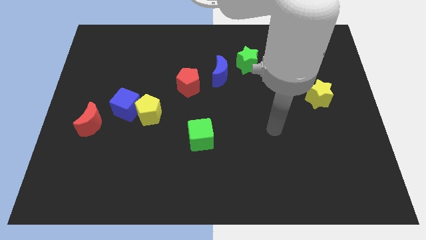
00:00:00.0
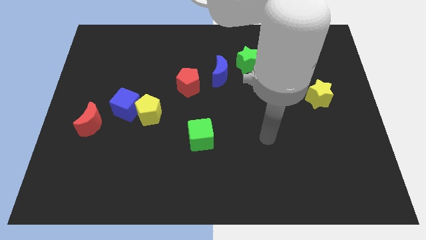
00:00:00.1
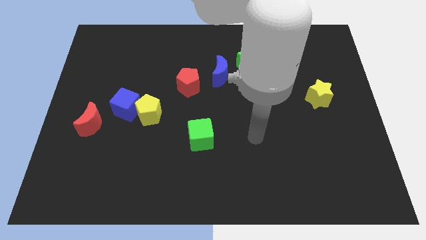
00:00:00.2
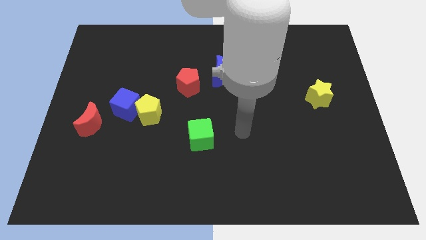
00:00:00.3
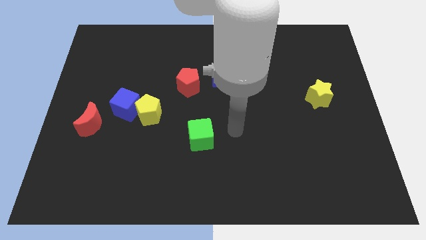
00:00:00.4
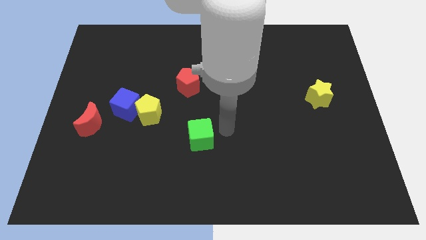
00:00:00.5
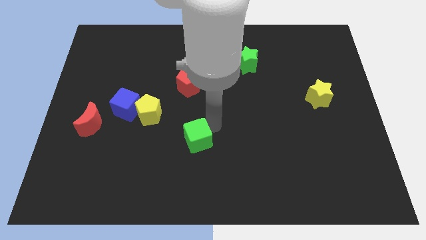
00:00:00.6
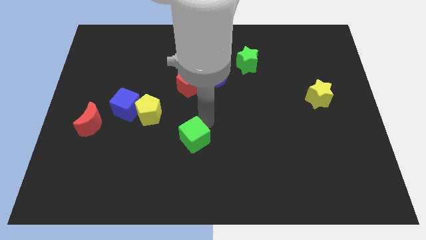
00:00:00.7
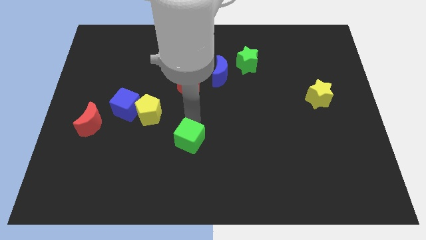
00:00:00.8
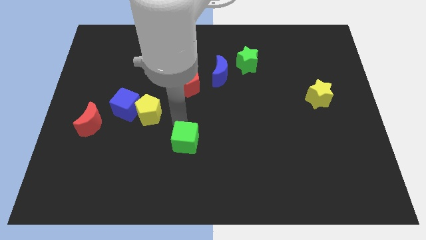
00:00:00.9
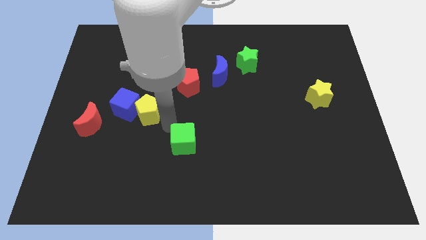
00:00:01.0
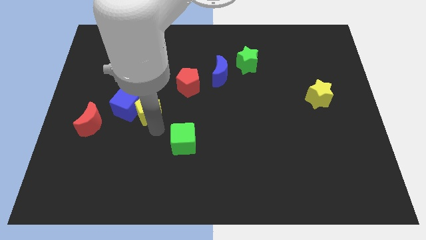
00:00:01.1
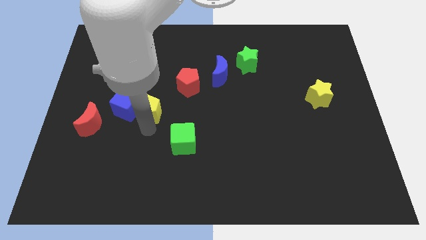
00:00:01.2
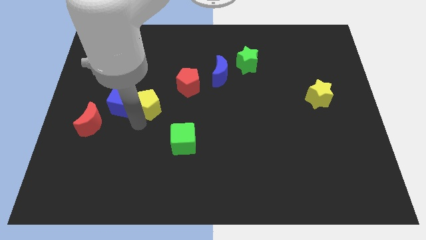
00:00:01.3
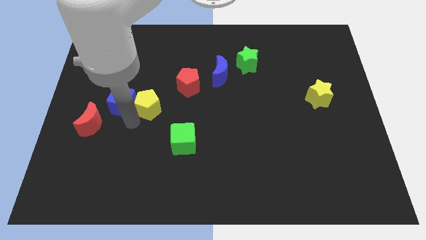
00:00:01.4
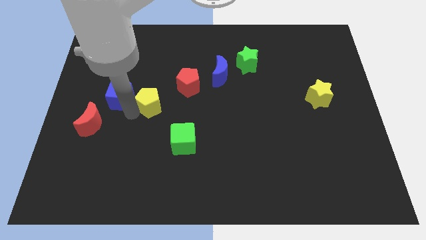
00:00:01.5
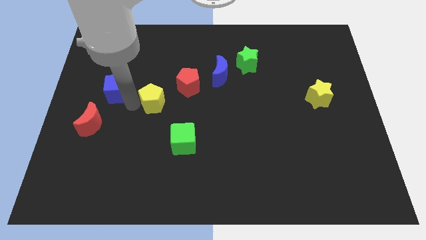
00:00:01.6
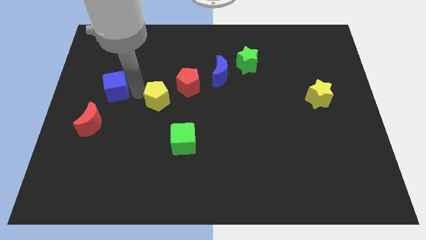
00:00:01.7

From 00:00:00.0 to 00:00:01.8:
pull the yellow pentagon apart from the blue cube

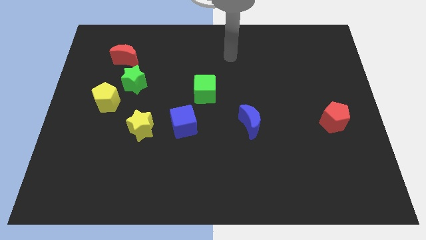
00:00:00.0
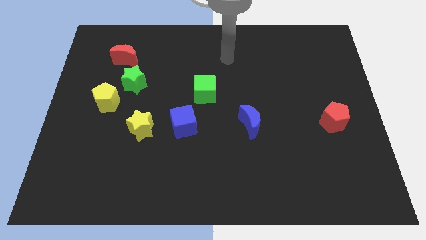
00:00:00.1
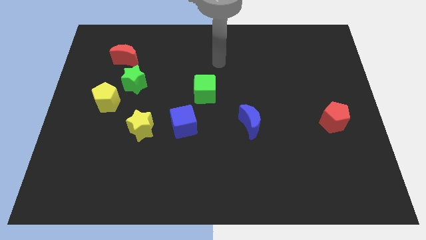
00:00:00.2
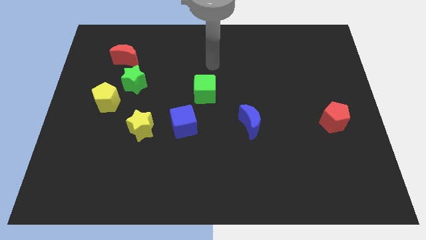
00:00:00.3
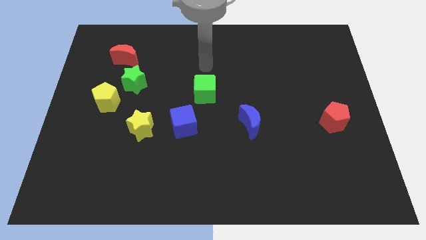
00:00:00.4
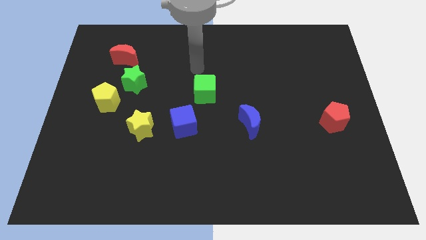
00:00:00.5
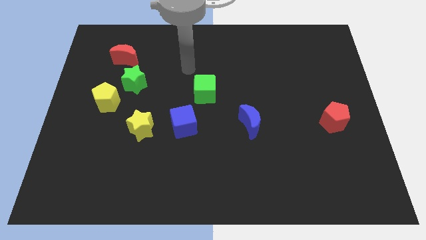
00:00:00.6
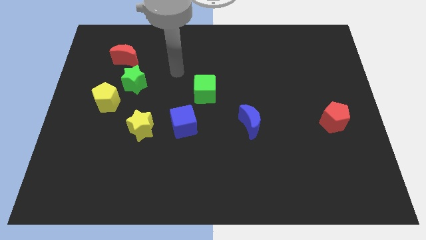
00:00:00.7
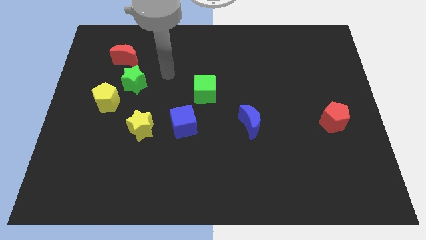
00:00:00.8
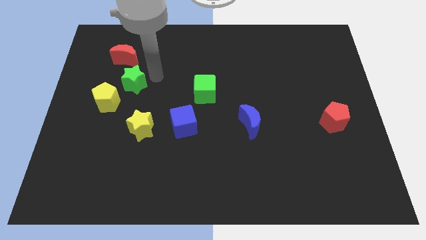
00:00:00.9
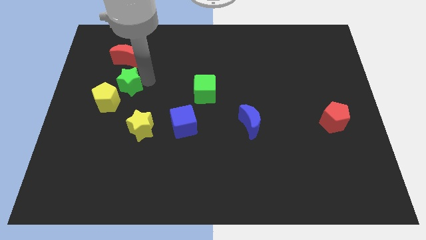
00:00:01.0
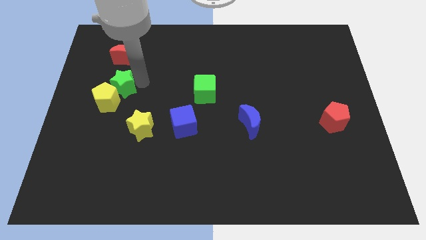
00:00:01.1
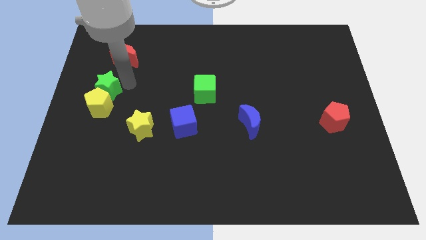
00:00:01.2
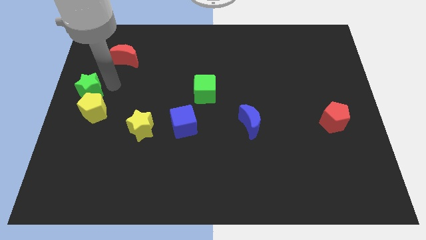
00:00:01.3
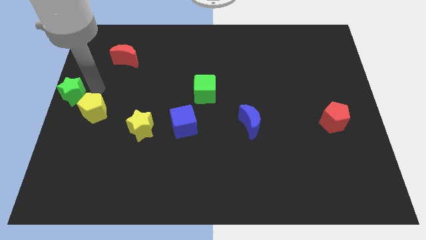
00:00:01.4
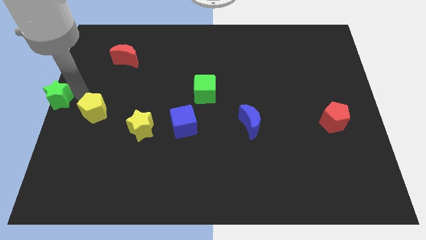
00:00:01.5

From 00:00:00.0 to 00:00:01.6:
pull the yellow pentagon apart from the green star

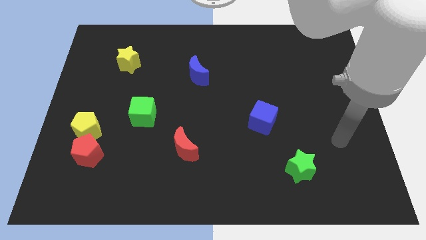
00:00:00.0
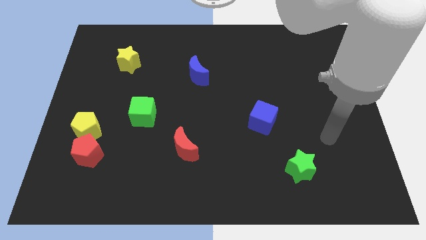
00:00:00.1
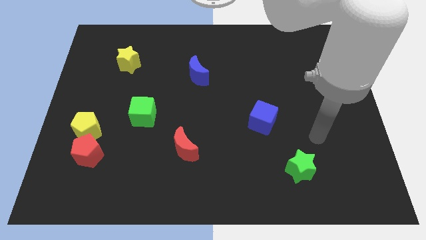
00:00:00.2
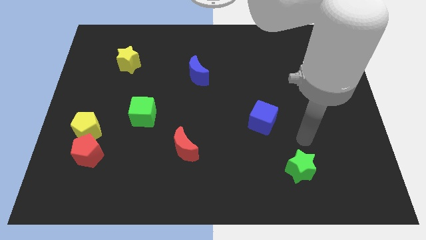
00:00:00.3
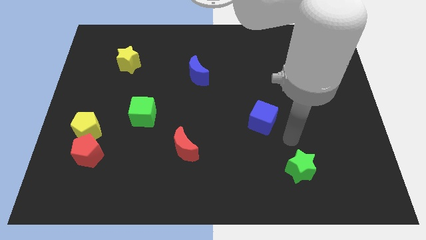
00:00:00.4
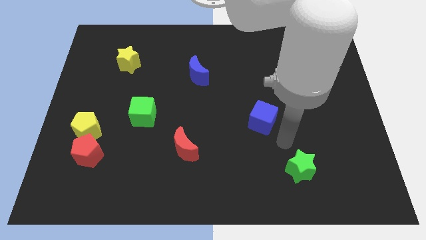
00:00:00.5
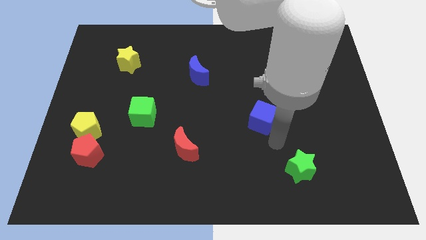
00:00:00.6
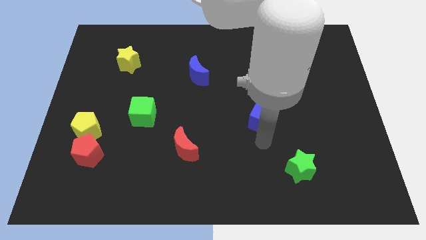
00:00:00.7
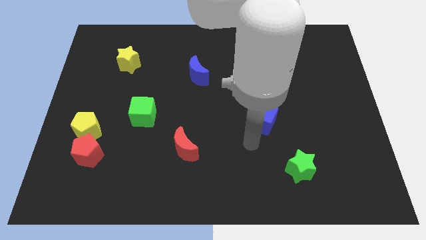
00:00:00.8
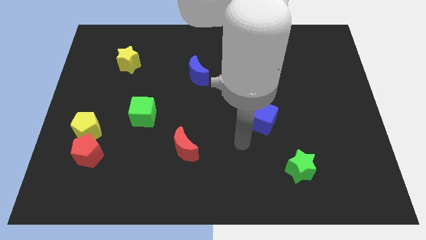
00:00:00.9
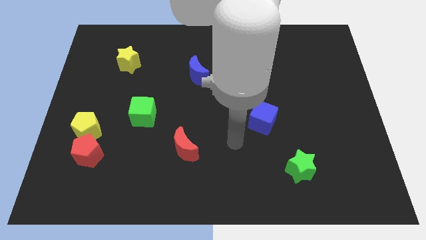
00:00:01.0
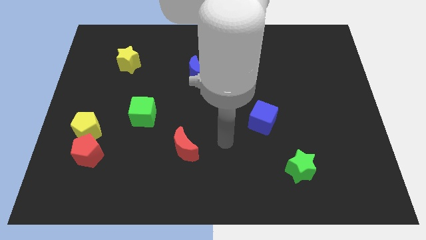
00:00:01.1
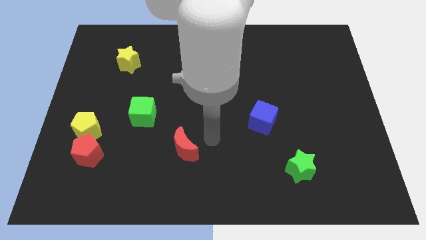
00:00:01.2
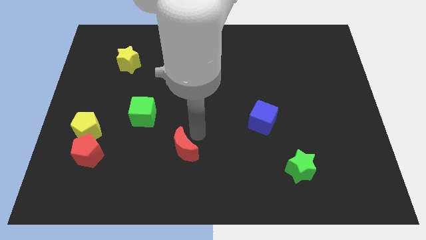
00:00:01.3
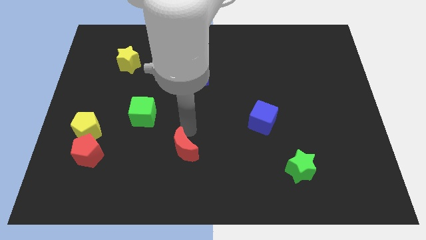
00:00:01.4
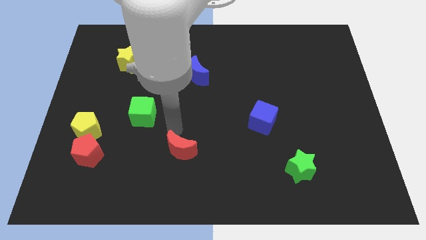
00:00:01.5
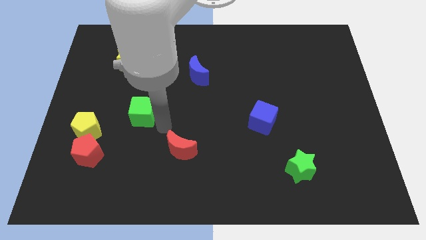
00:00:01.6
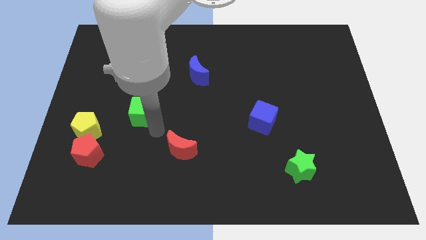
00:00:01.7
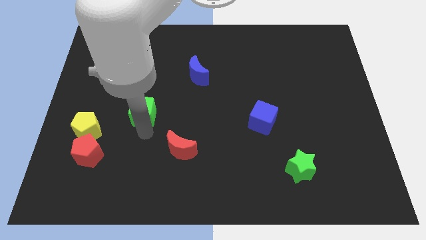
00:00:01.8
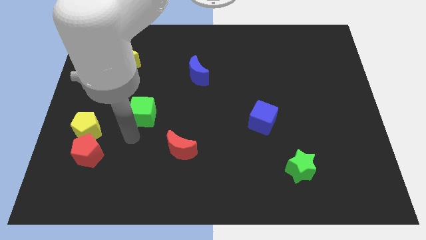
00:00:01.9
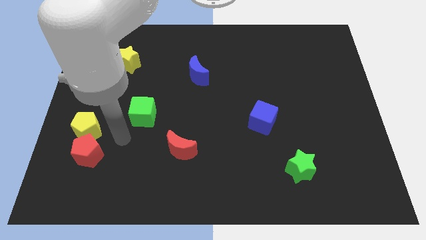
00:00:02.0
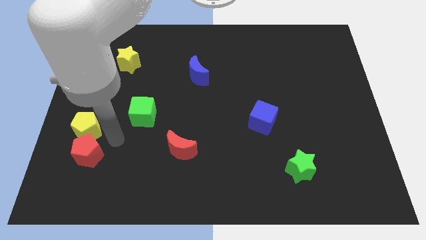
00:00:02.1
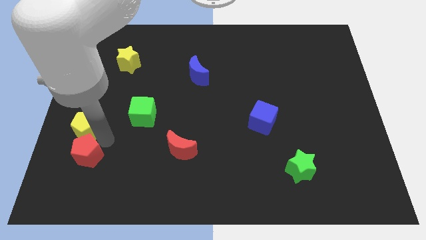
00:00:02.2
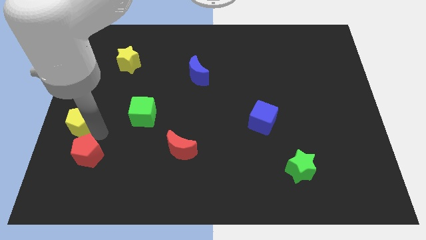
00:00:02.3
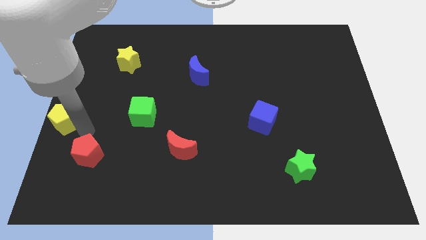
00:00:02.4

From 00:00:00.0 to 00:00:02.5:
separate the red pentagon from the yellow pentagon

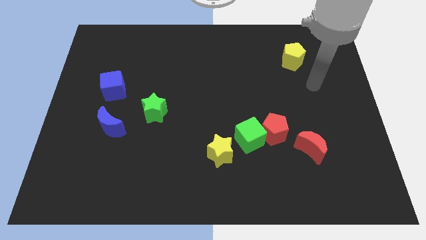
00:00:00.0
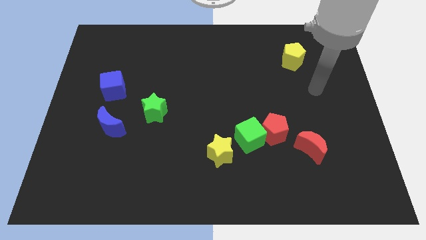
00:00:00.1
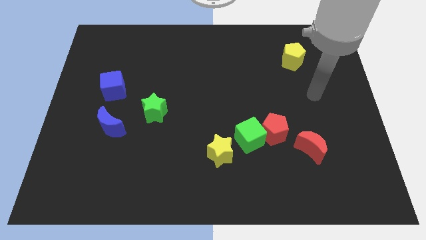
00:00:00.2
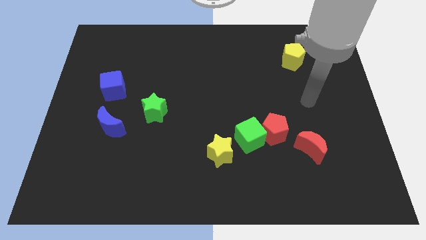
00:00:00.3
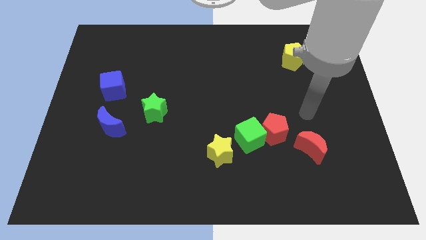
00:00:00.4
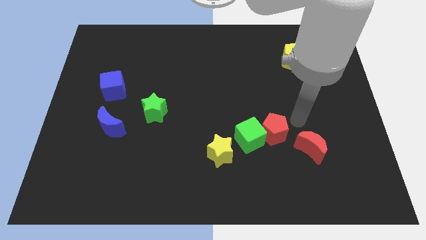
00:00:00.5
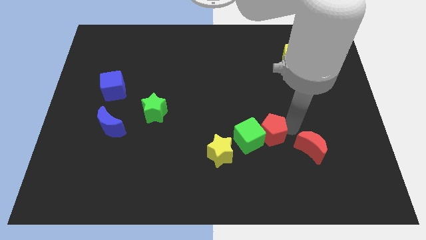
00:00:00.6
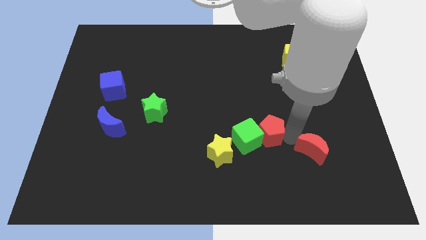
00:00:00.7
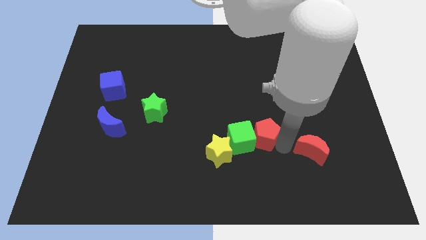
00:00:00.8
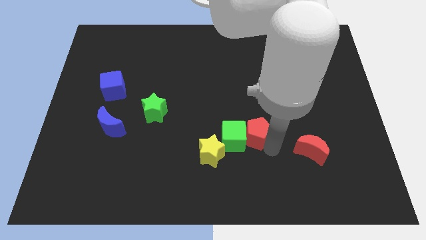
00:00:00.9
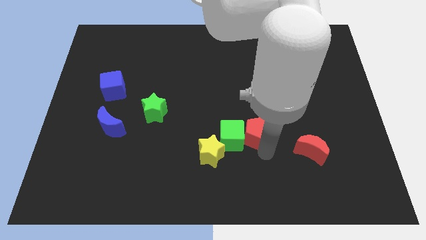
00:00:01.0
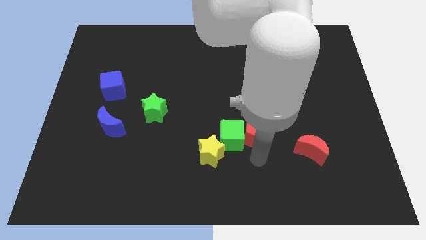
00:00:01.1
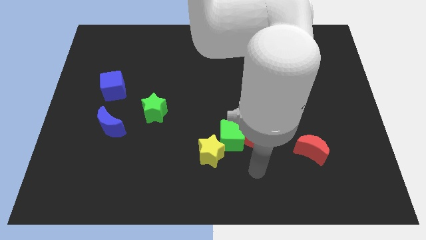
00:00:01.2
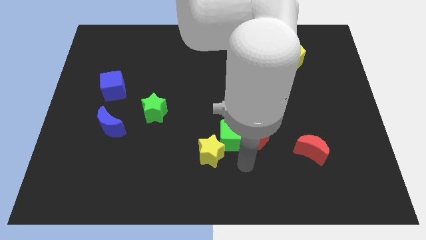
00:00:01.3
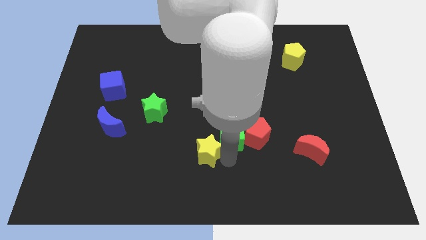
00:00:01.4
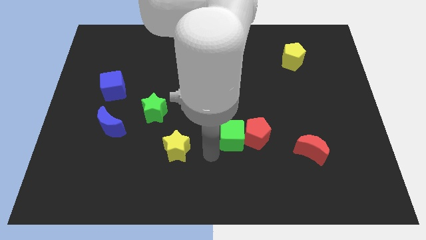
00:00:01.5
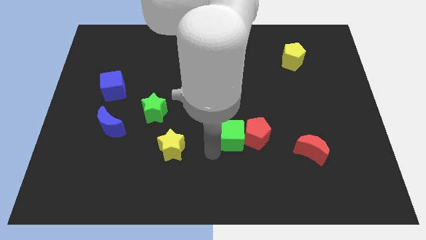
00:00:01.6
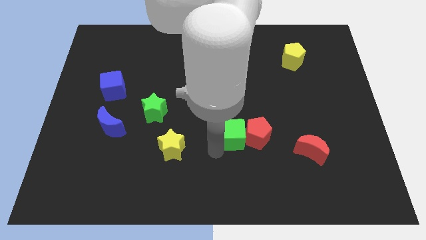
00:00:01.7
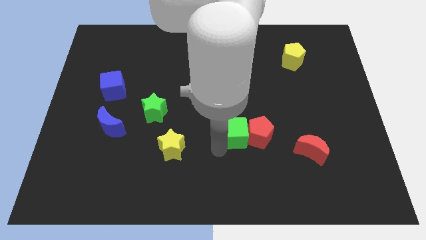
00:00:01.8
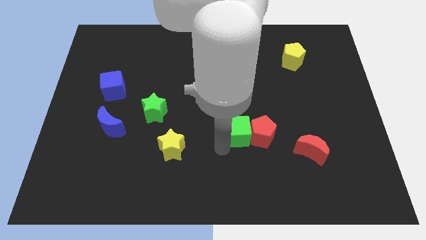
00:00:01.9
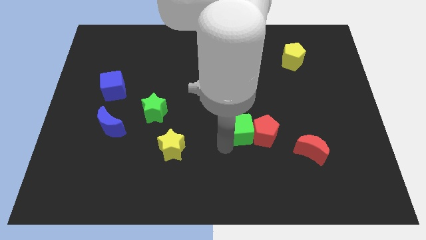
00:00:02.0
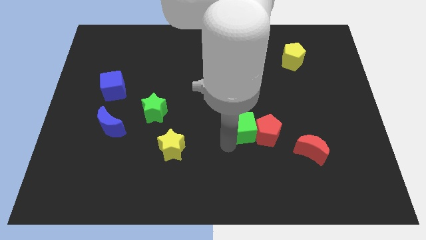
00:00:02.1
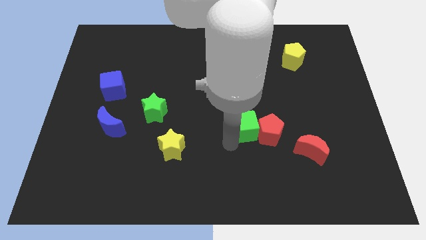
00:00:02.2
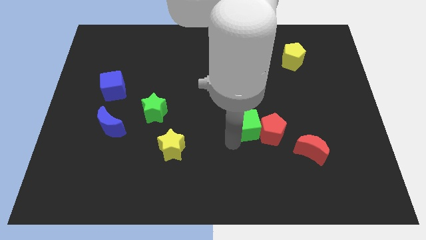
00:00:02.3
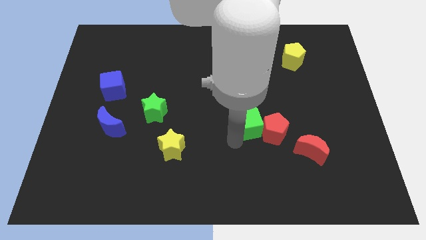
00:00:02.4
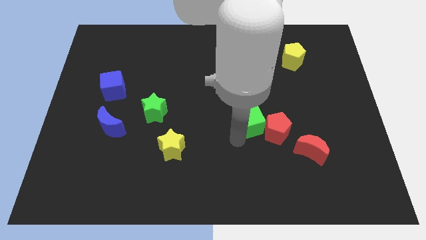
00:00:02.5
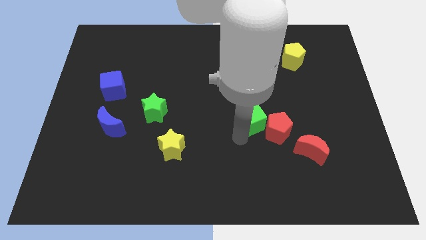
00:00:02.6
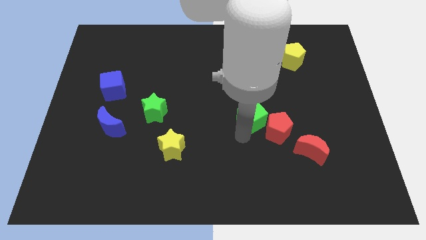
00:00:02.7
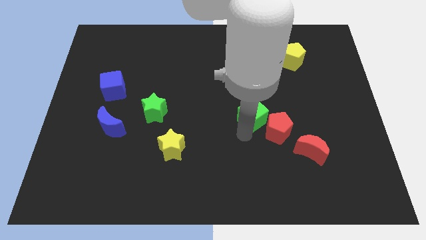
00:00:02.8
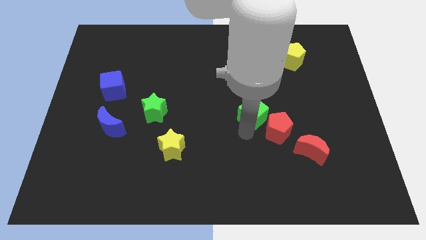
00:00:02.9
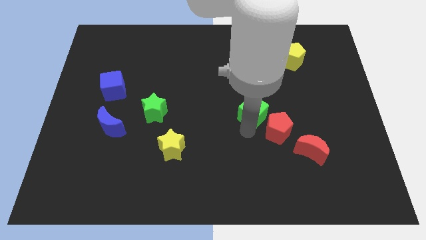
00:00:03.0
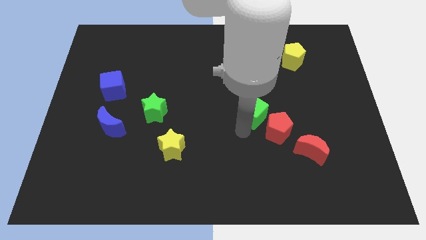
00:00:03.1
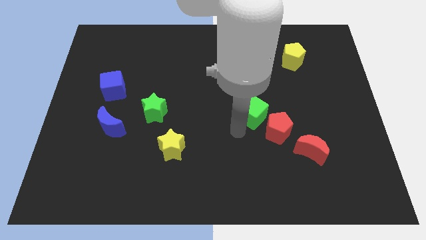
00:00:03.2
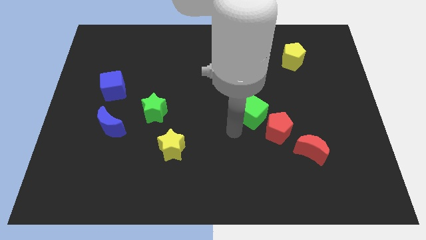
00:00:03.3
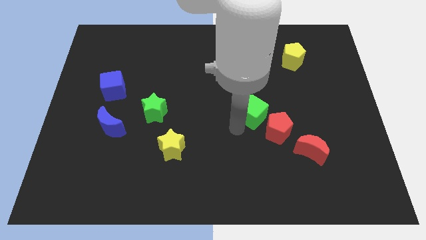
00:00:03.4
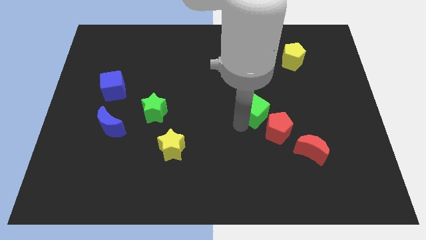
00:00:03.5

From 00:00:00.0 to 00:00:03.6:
move the green cube away from the red pentagon and yellow star
